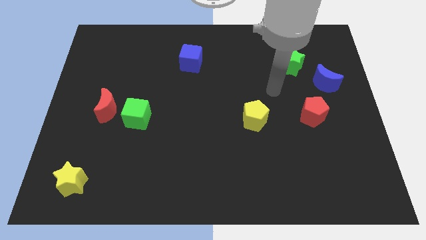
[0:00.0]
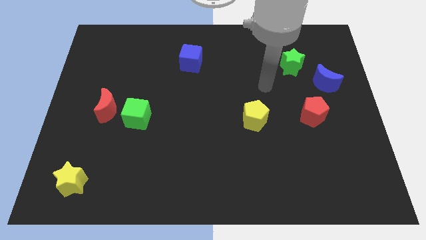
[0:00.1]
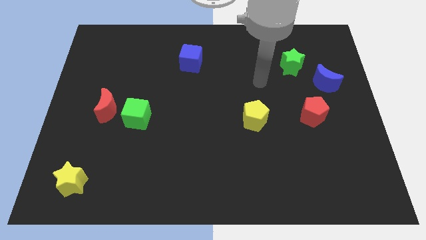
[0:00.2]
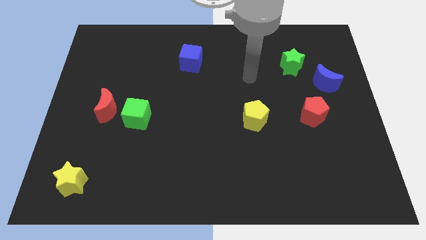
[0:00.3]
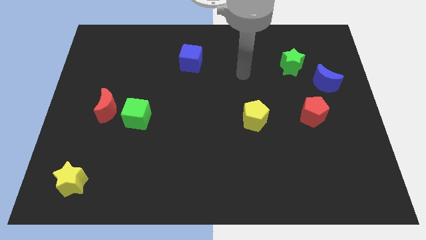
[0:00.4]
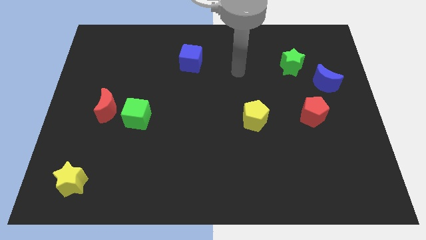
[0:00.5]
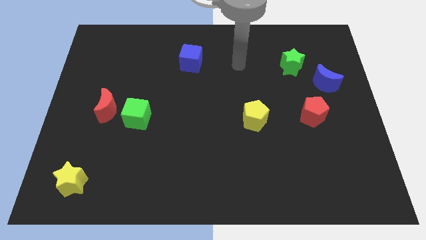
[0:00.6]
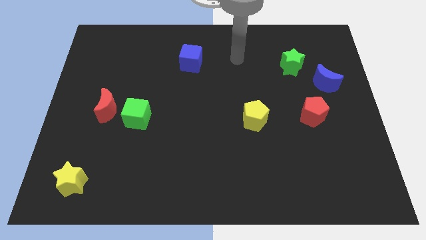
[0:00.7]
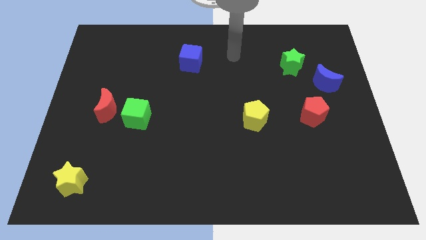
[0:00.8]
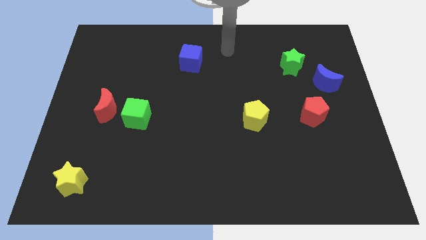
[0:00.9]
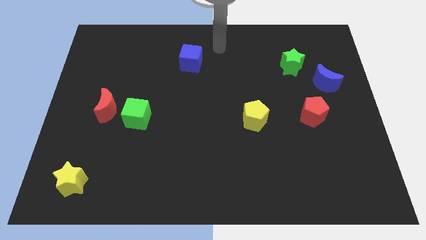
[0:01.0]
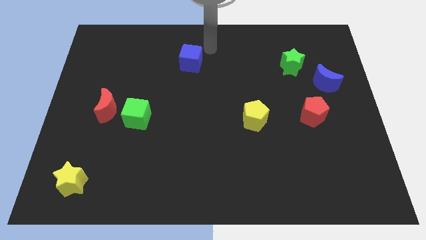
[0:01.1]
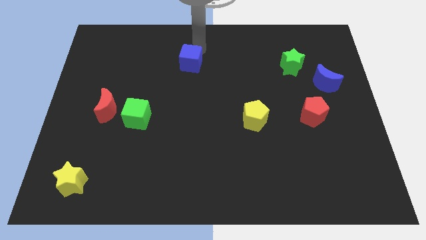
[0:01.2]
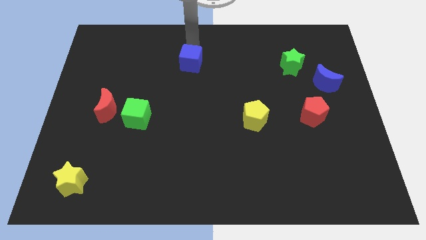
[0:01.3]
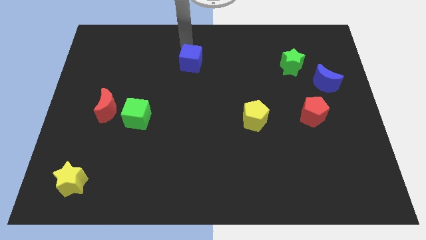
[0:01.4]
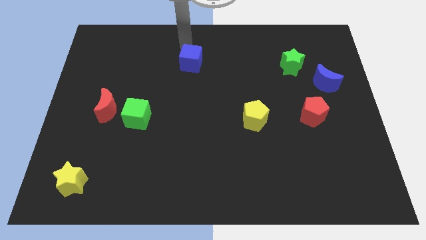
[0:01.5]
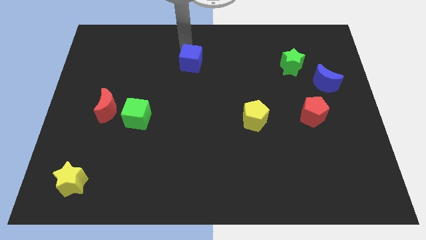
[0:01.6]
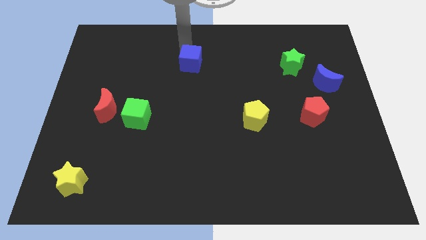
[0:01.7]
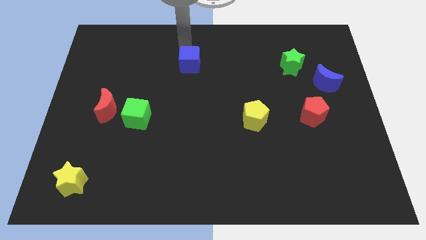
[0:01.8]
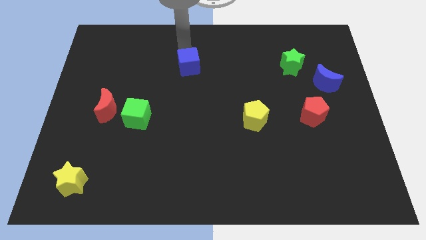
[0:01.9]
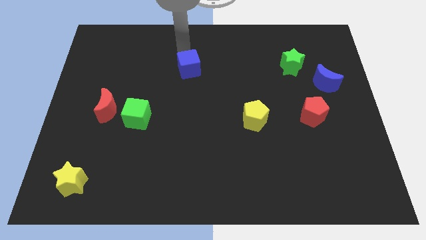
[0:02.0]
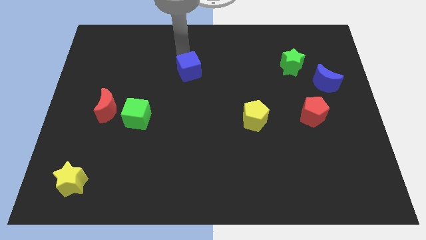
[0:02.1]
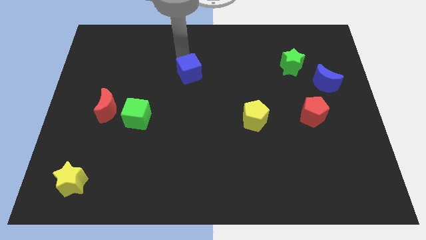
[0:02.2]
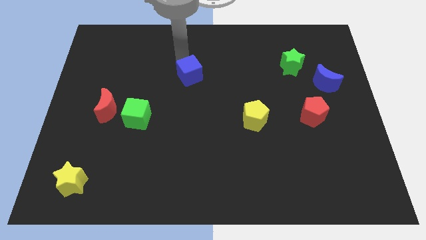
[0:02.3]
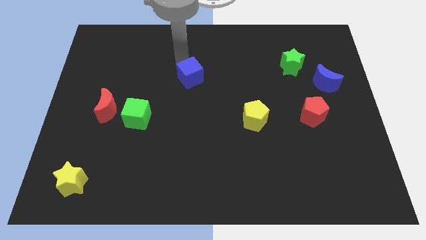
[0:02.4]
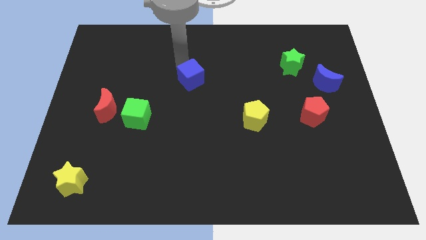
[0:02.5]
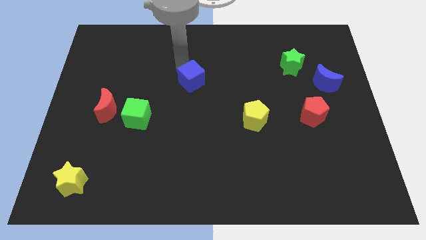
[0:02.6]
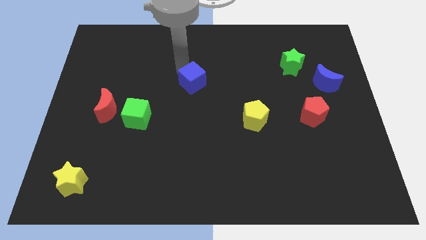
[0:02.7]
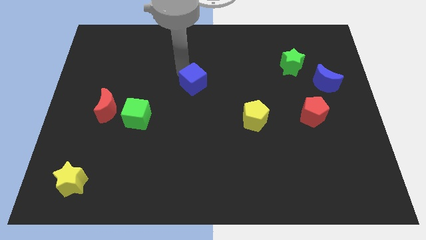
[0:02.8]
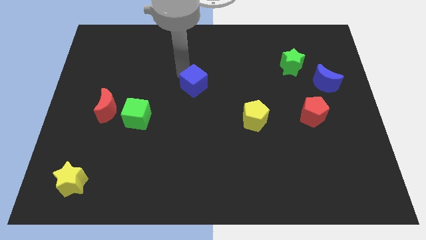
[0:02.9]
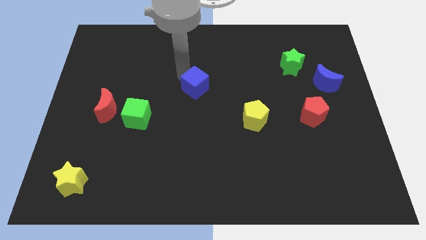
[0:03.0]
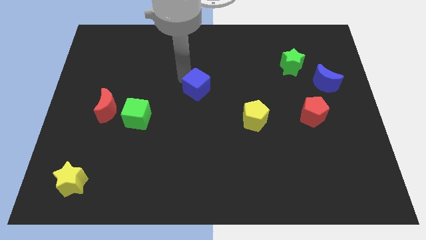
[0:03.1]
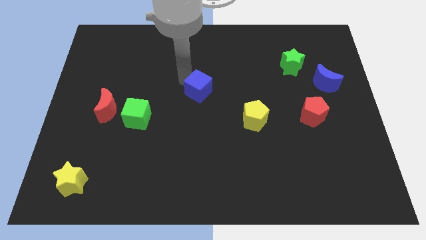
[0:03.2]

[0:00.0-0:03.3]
push the blue cube slightly down and to the right

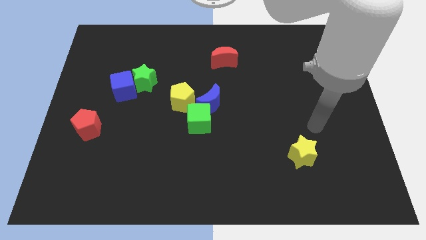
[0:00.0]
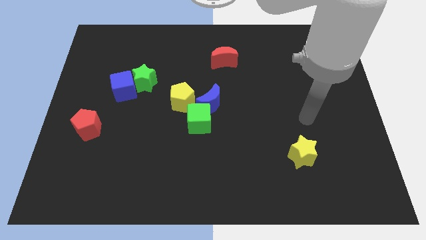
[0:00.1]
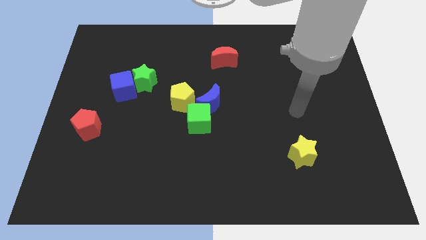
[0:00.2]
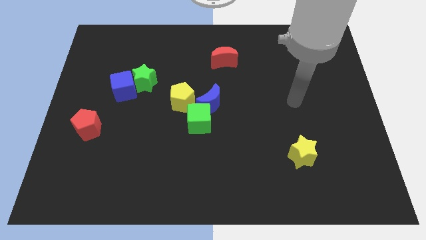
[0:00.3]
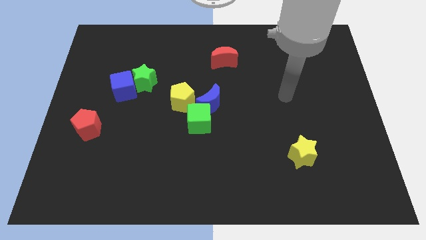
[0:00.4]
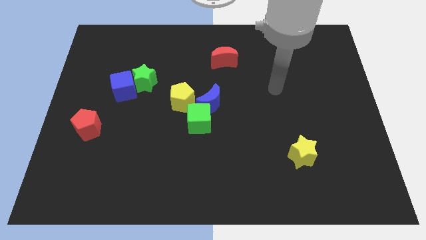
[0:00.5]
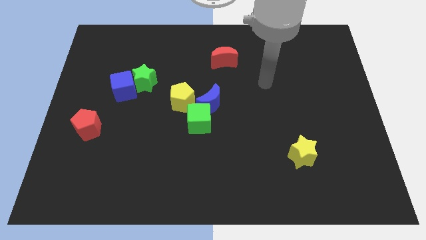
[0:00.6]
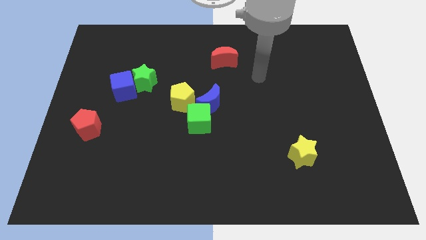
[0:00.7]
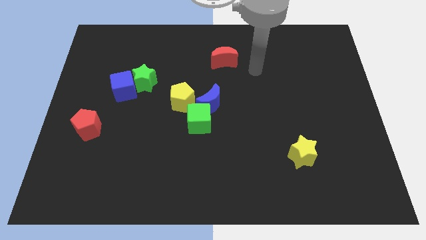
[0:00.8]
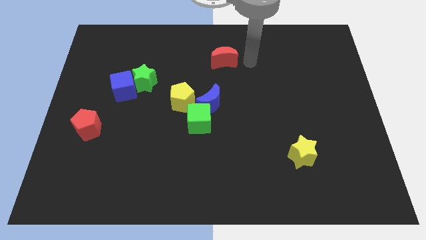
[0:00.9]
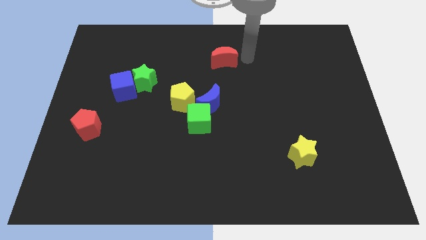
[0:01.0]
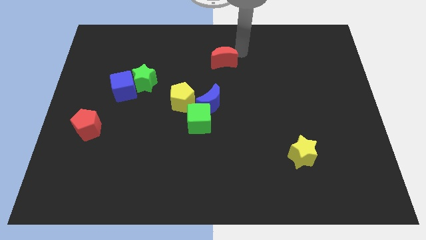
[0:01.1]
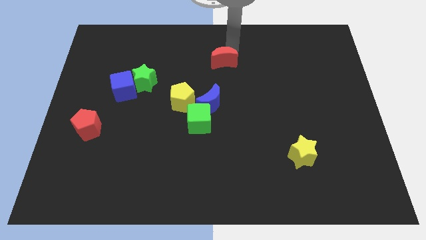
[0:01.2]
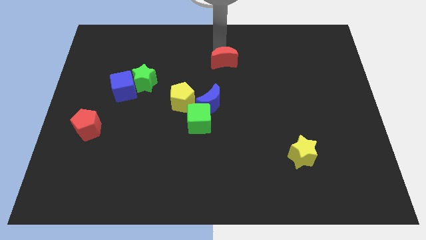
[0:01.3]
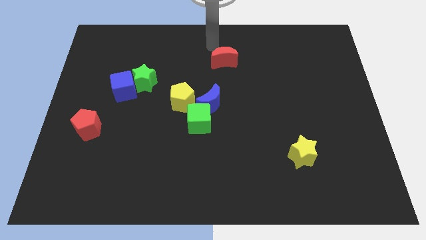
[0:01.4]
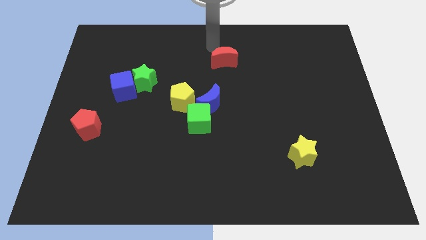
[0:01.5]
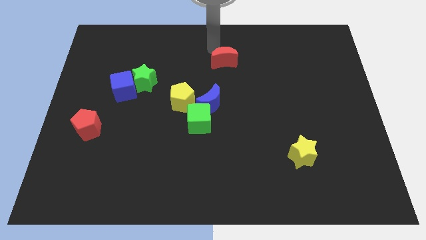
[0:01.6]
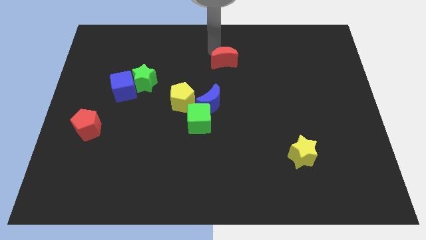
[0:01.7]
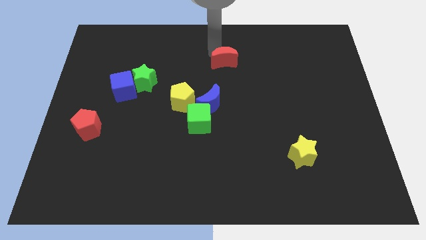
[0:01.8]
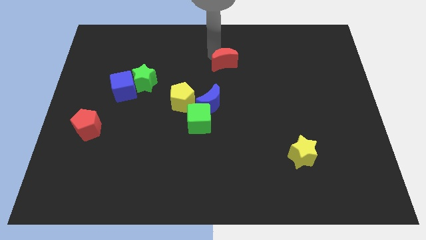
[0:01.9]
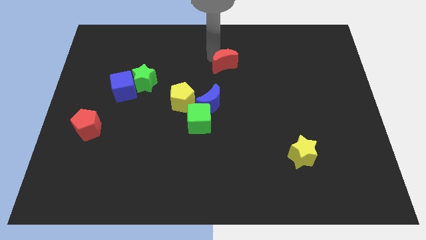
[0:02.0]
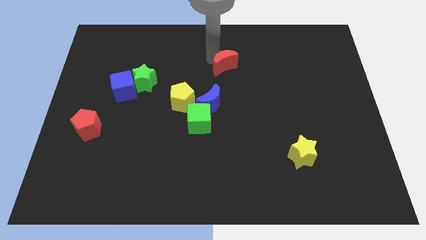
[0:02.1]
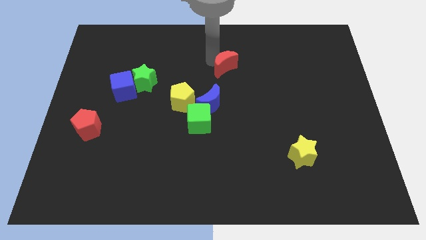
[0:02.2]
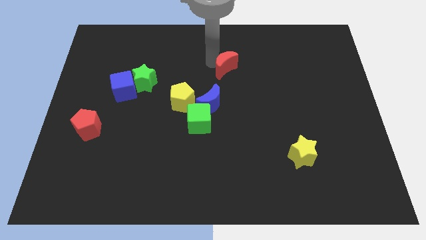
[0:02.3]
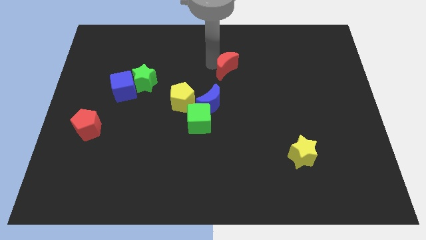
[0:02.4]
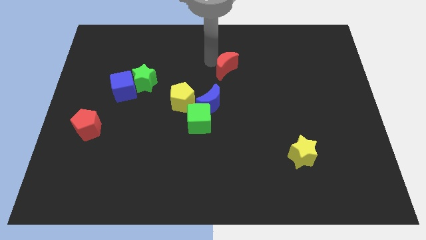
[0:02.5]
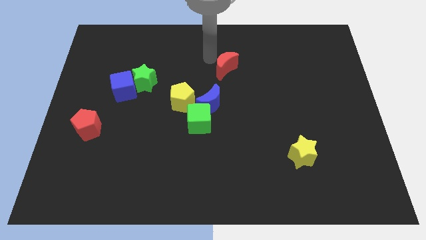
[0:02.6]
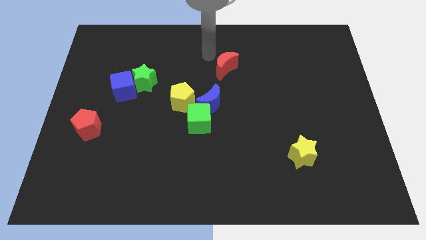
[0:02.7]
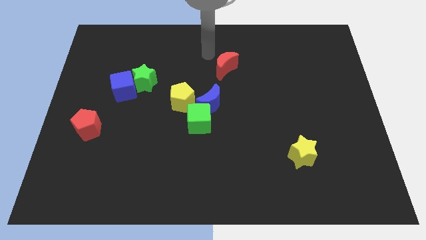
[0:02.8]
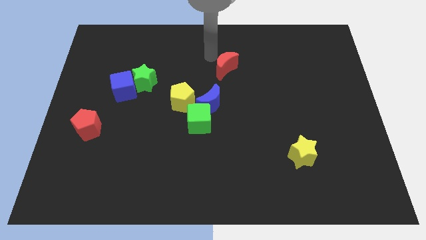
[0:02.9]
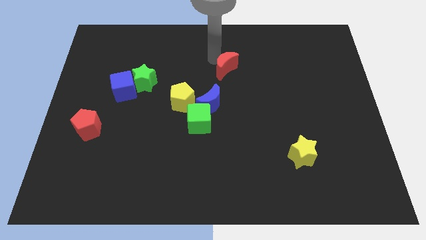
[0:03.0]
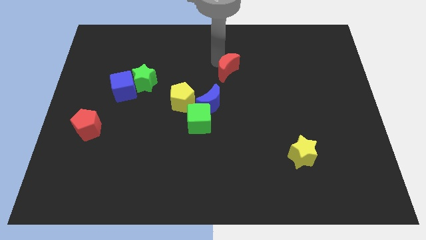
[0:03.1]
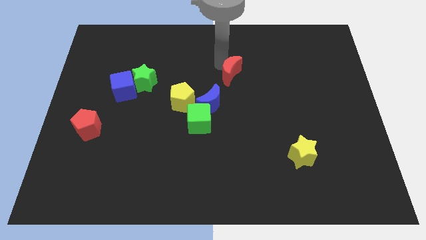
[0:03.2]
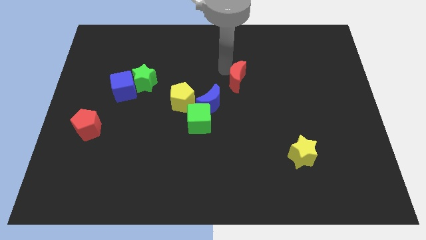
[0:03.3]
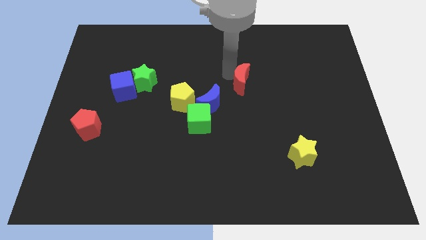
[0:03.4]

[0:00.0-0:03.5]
move the red moon down and right a little bit

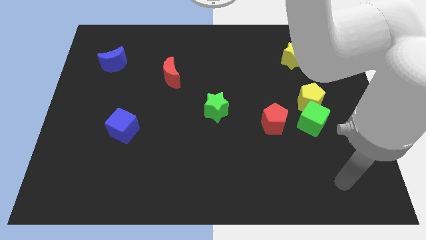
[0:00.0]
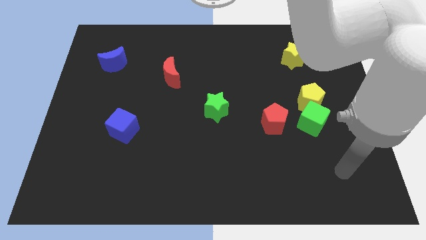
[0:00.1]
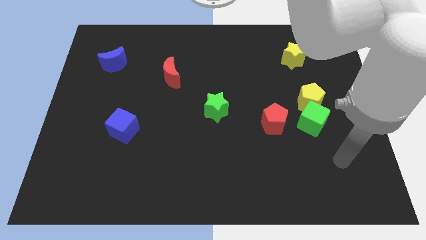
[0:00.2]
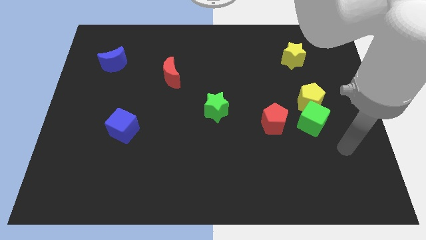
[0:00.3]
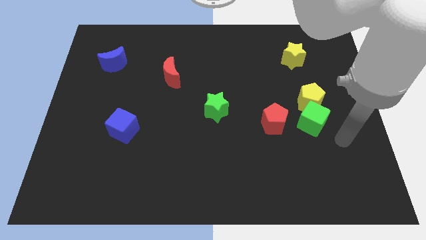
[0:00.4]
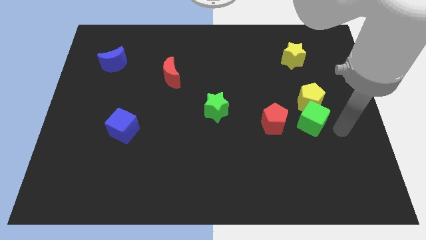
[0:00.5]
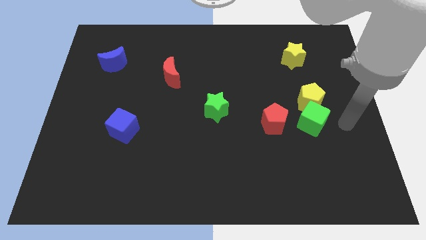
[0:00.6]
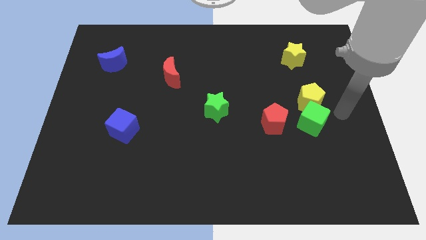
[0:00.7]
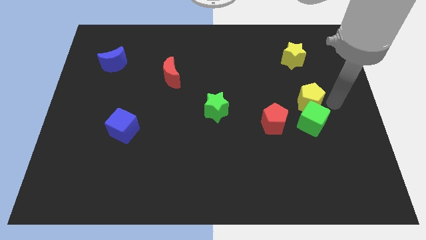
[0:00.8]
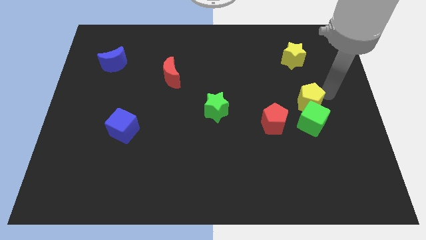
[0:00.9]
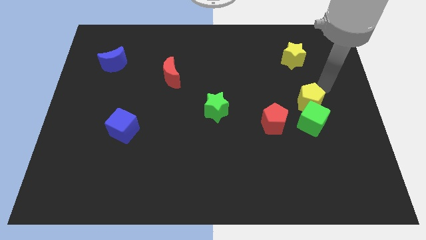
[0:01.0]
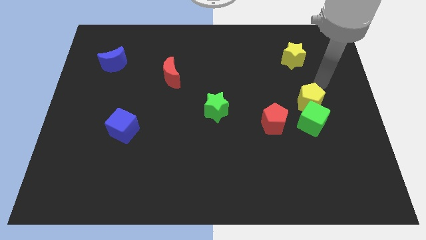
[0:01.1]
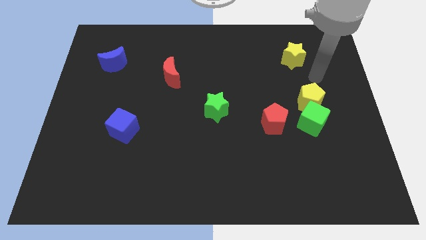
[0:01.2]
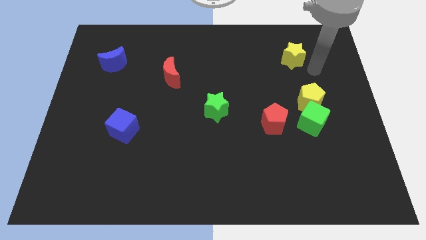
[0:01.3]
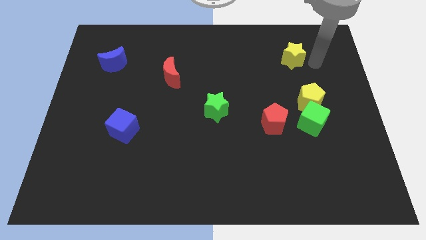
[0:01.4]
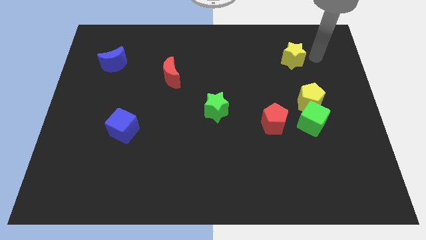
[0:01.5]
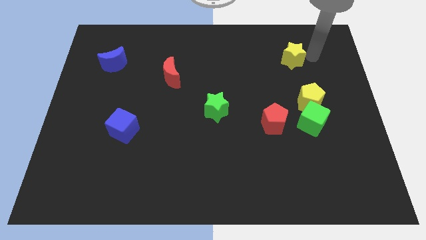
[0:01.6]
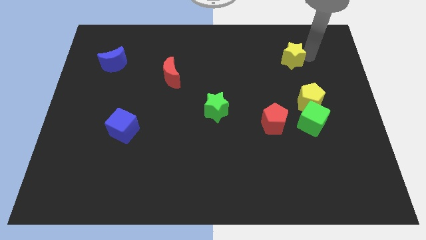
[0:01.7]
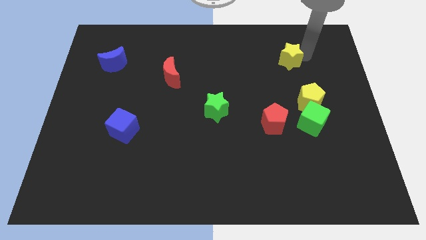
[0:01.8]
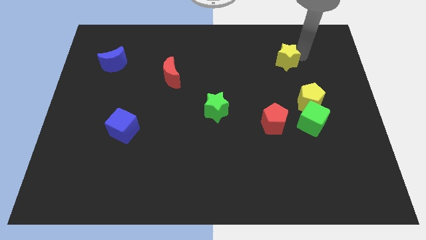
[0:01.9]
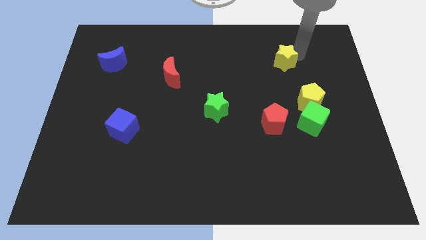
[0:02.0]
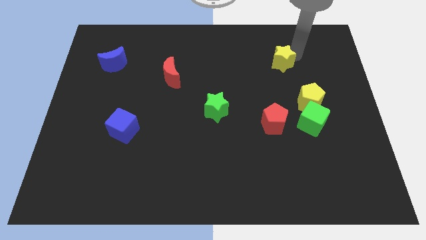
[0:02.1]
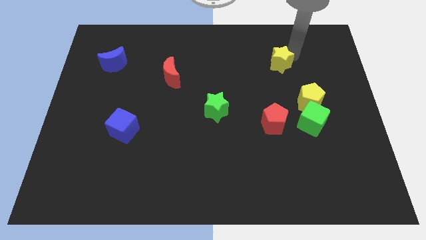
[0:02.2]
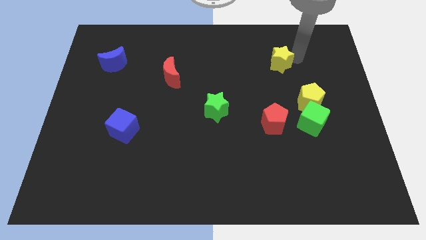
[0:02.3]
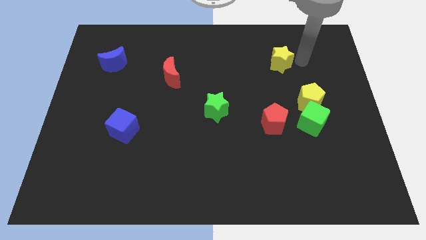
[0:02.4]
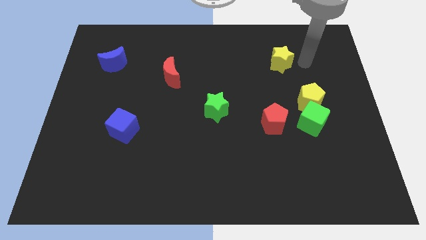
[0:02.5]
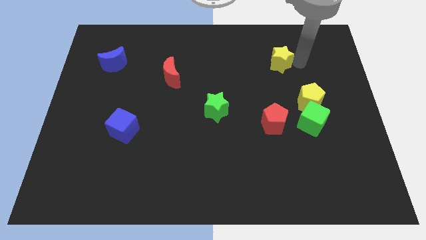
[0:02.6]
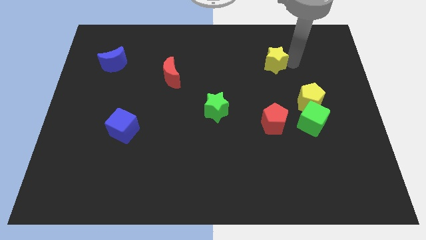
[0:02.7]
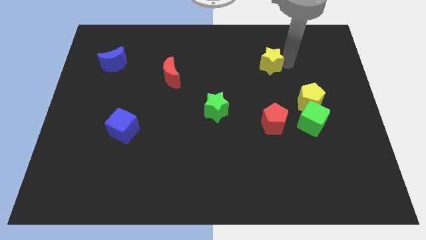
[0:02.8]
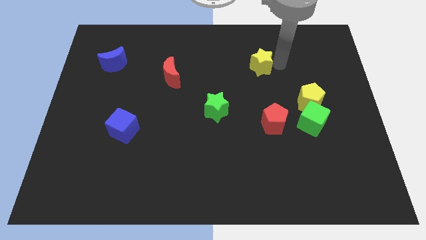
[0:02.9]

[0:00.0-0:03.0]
move the yellow star to the left a little
